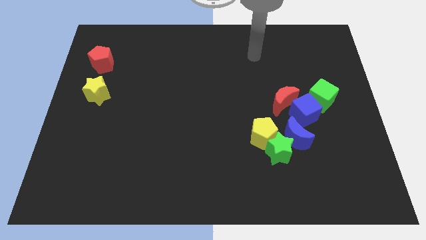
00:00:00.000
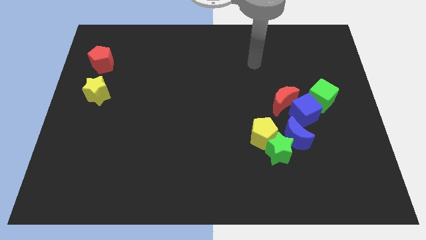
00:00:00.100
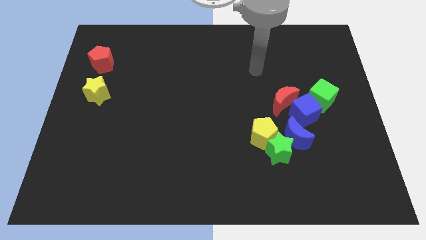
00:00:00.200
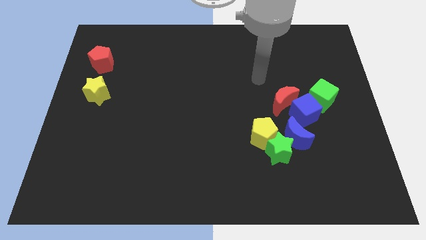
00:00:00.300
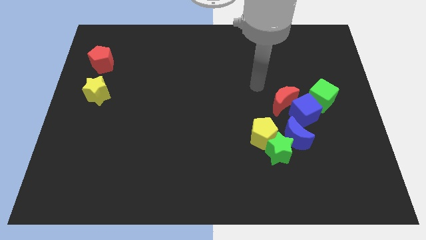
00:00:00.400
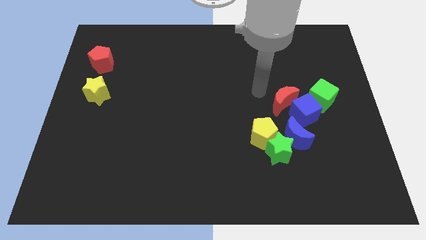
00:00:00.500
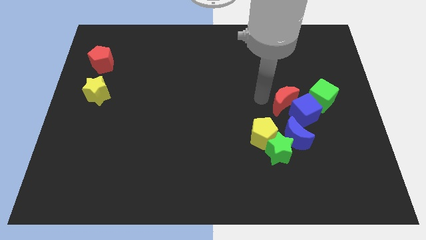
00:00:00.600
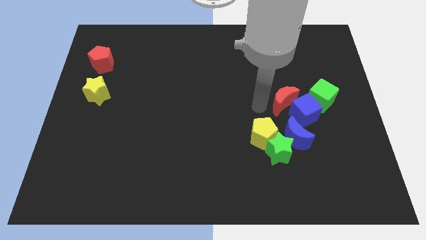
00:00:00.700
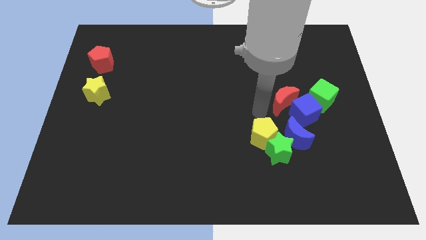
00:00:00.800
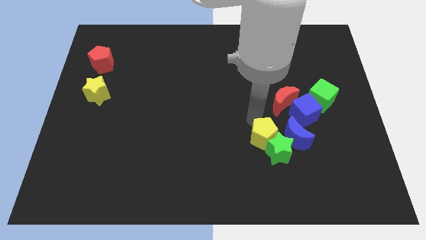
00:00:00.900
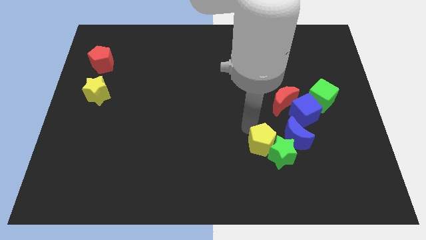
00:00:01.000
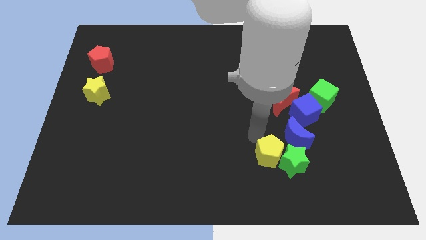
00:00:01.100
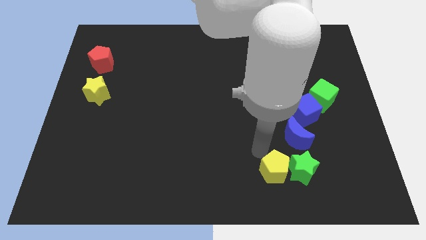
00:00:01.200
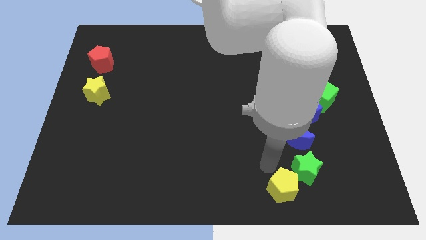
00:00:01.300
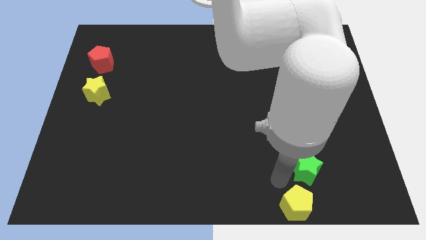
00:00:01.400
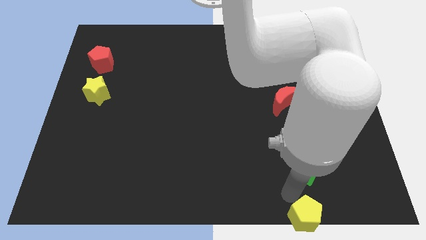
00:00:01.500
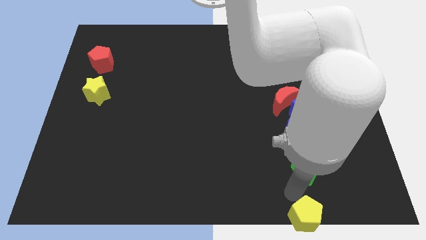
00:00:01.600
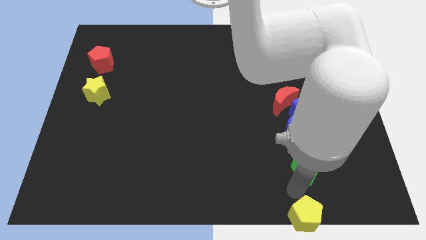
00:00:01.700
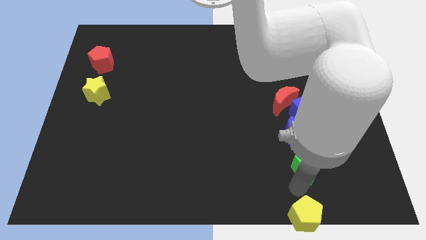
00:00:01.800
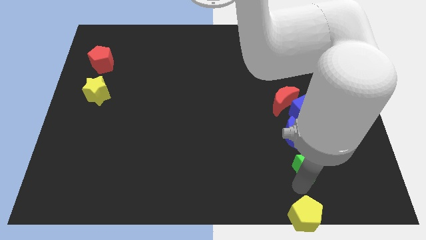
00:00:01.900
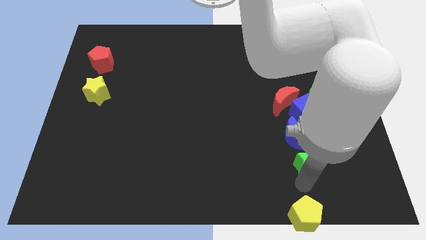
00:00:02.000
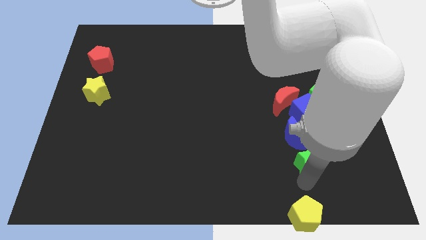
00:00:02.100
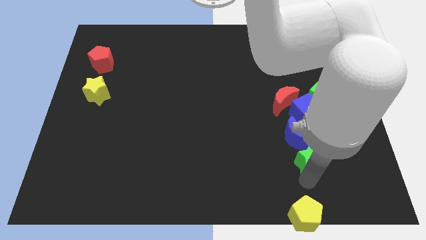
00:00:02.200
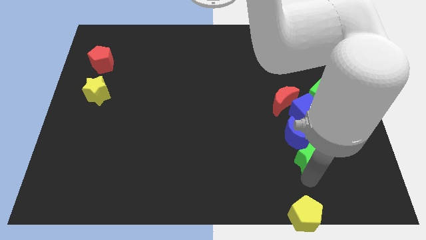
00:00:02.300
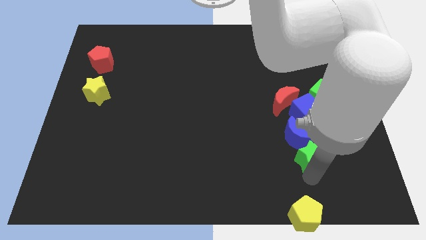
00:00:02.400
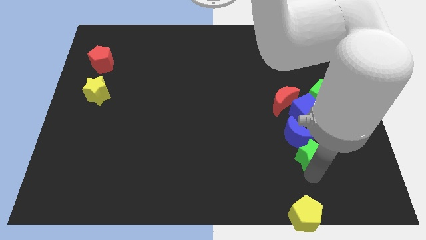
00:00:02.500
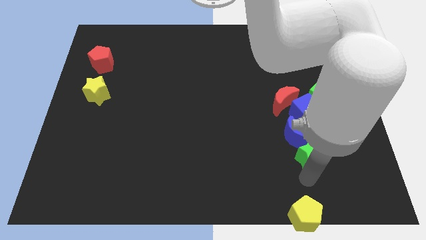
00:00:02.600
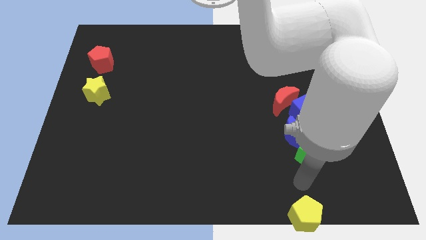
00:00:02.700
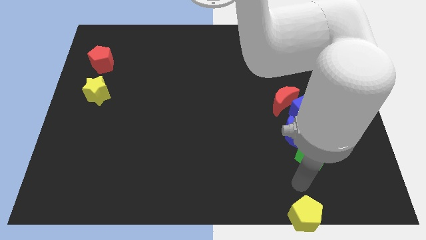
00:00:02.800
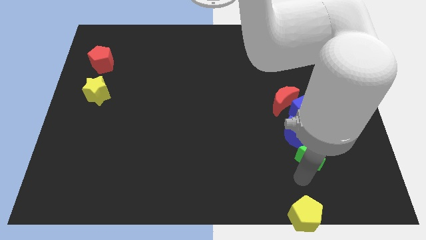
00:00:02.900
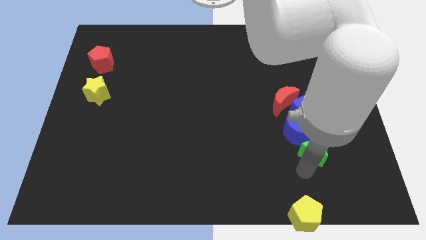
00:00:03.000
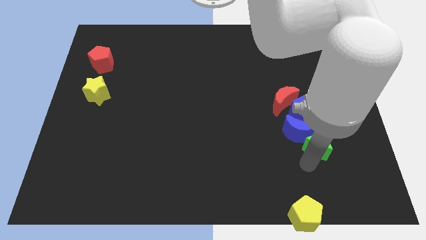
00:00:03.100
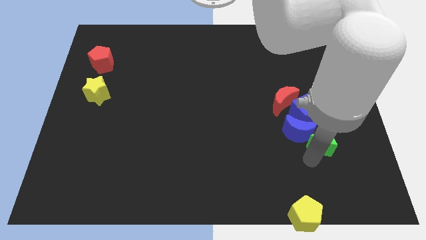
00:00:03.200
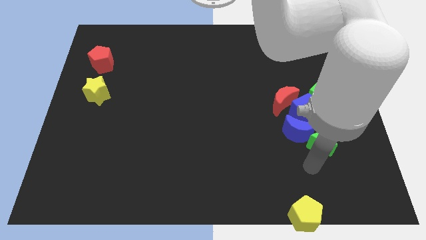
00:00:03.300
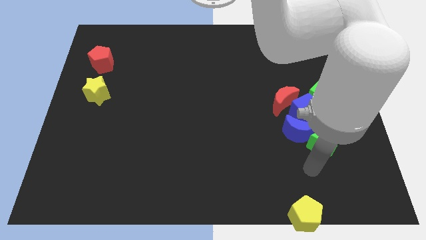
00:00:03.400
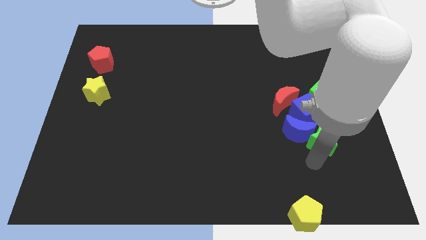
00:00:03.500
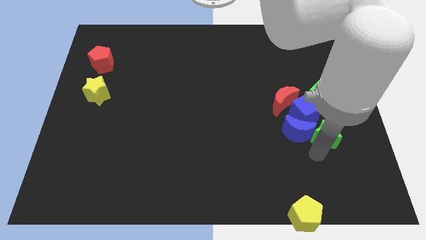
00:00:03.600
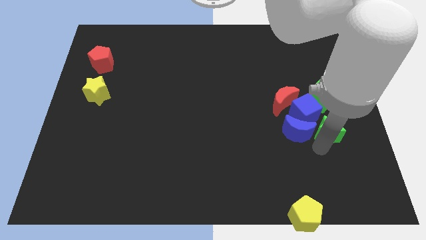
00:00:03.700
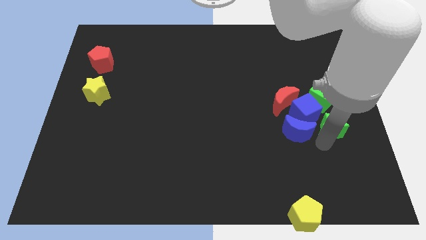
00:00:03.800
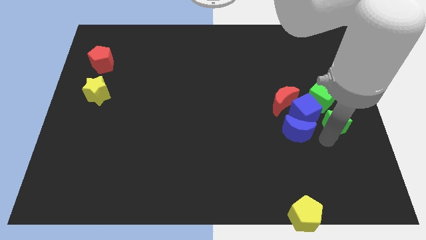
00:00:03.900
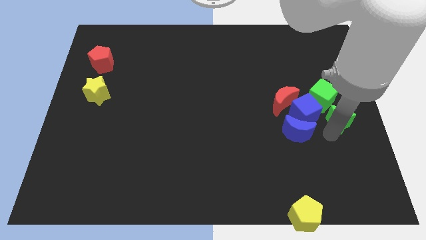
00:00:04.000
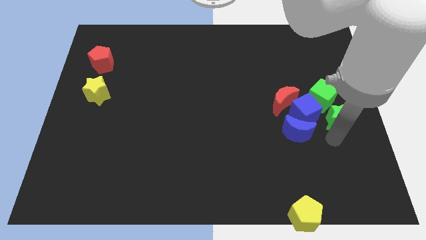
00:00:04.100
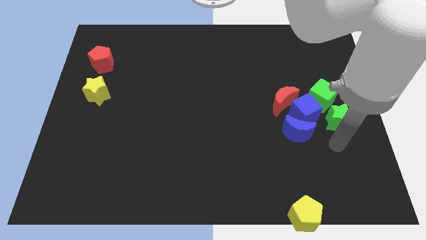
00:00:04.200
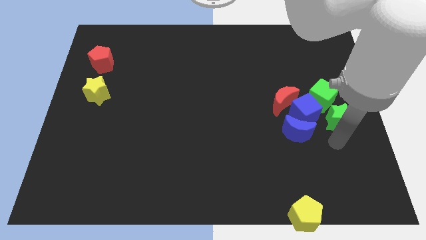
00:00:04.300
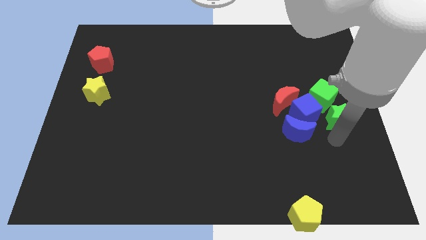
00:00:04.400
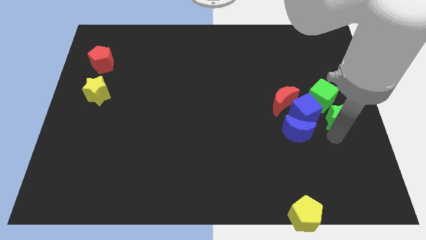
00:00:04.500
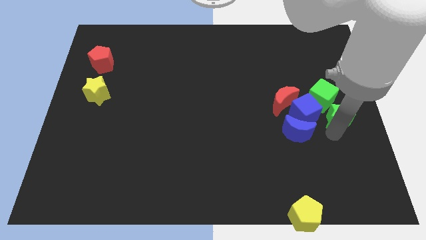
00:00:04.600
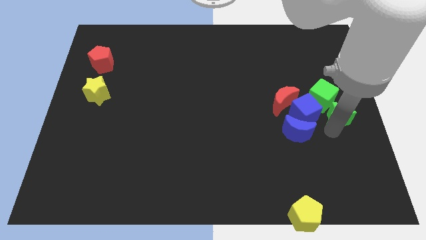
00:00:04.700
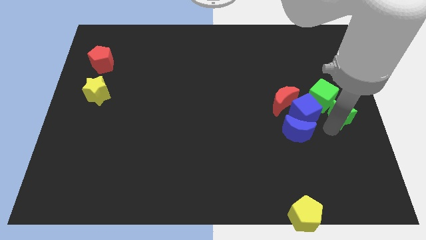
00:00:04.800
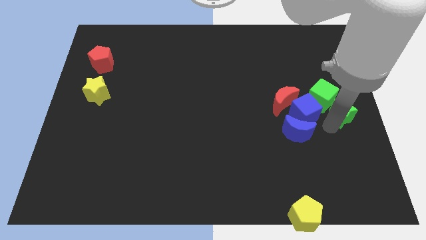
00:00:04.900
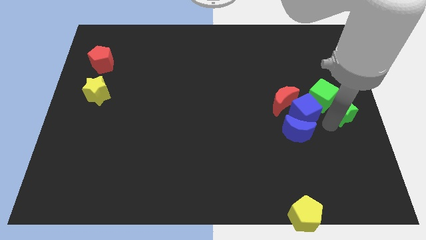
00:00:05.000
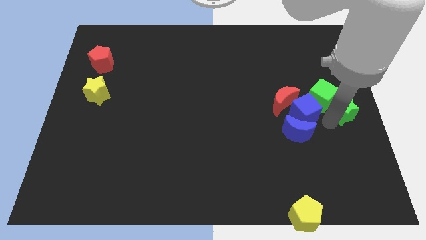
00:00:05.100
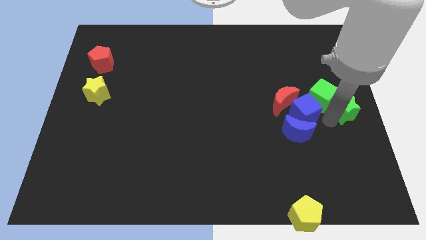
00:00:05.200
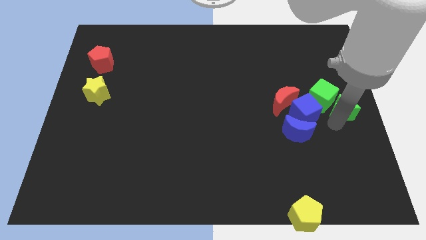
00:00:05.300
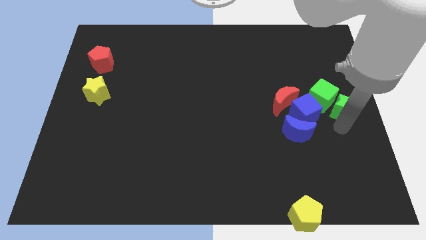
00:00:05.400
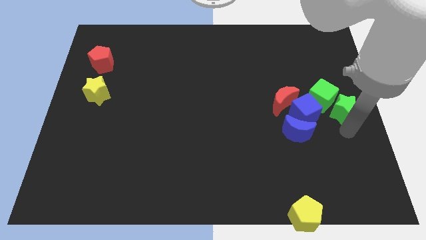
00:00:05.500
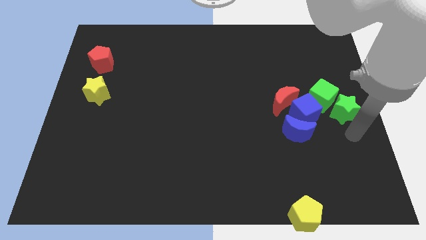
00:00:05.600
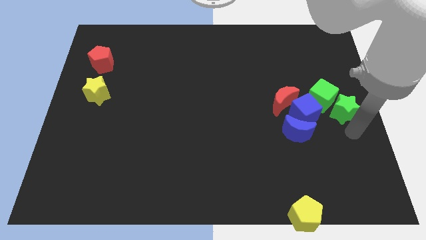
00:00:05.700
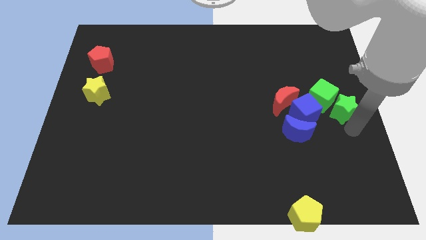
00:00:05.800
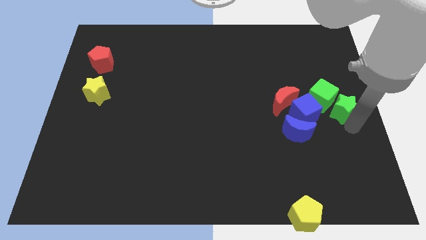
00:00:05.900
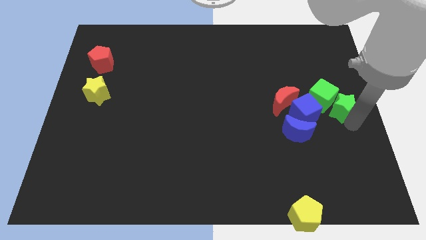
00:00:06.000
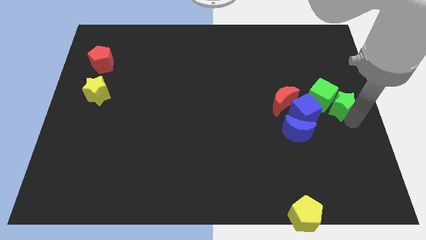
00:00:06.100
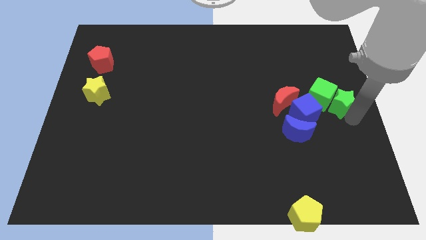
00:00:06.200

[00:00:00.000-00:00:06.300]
move the green star to the top right side of the blue cube

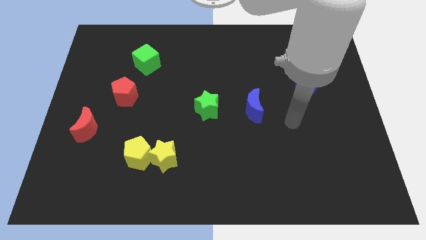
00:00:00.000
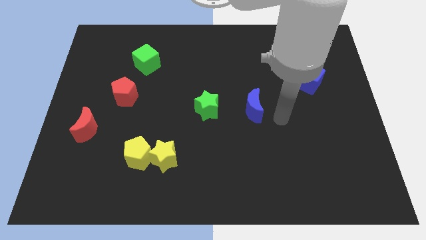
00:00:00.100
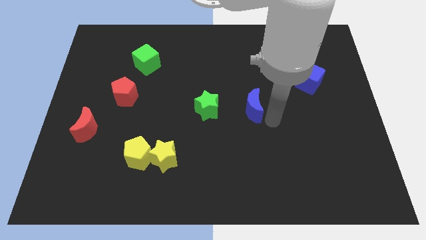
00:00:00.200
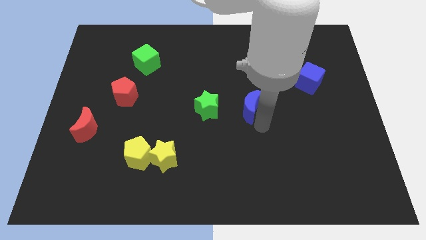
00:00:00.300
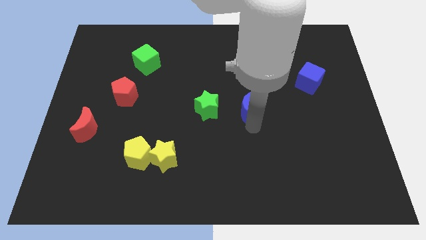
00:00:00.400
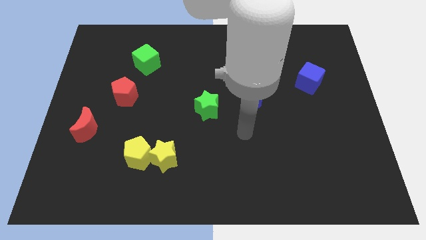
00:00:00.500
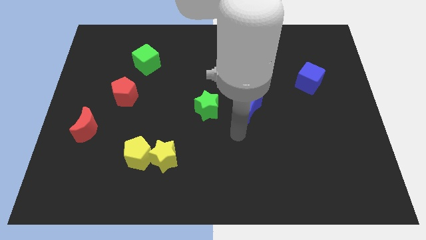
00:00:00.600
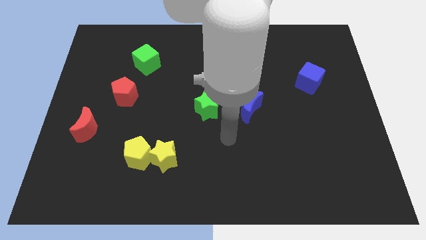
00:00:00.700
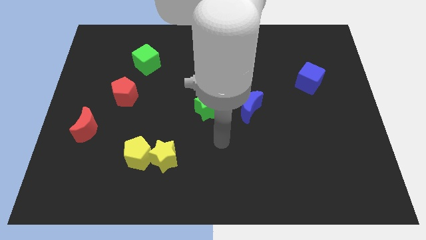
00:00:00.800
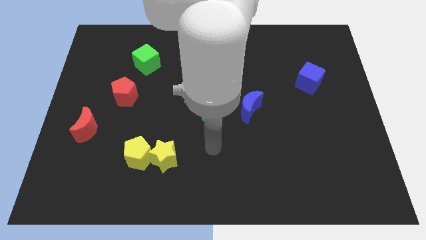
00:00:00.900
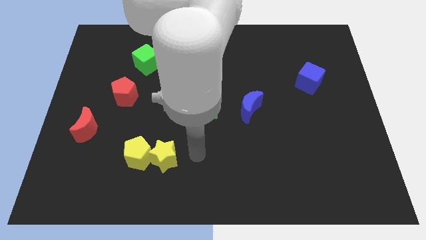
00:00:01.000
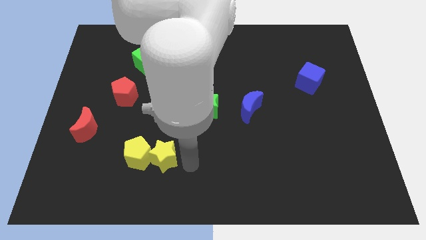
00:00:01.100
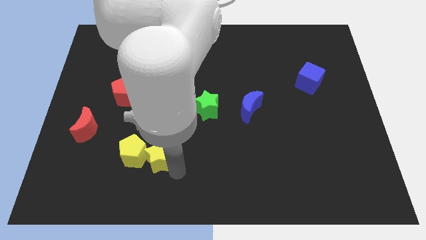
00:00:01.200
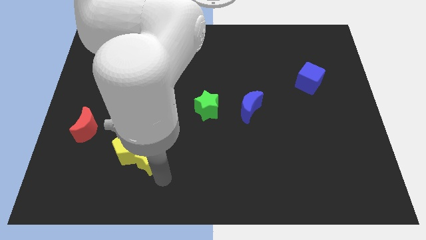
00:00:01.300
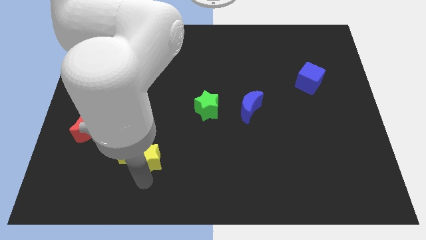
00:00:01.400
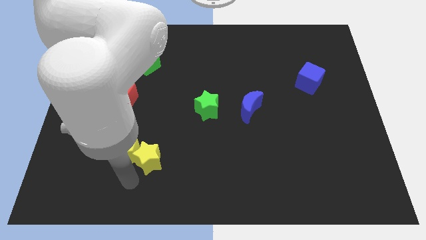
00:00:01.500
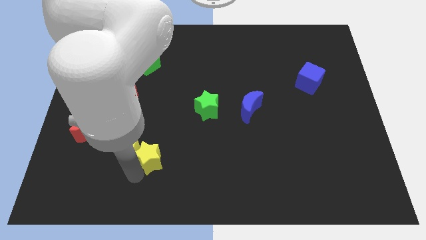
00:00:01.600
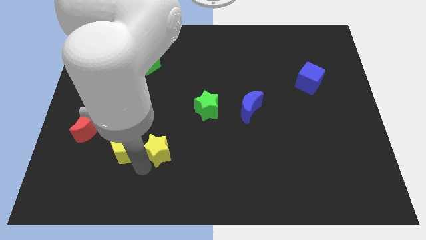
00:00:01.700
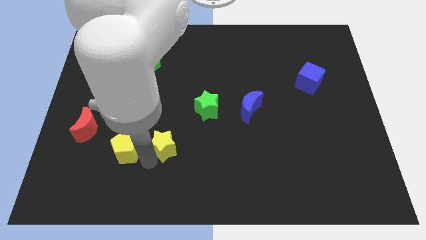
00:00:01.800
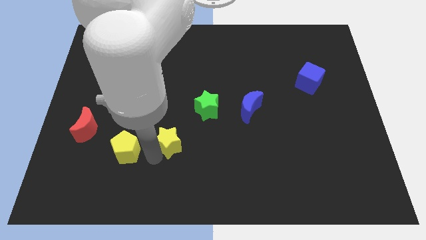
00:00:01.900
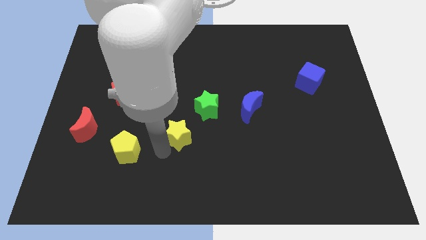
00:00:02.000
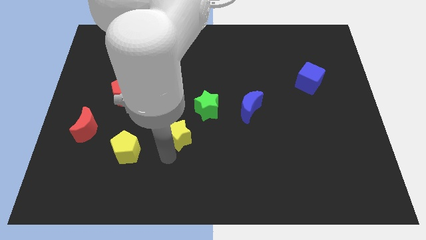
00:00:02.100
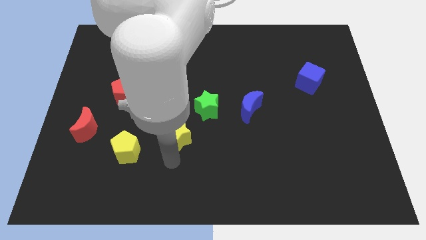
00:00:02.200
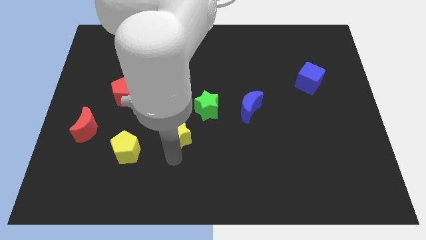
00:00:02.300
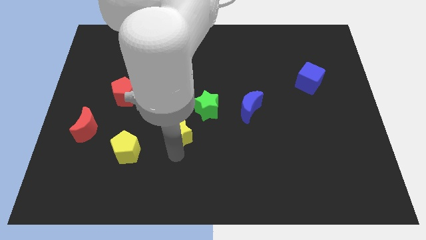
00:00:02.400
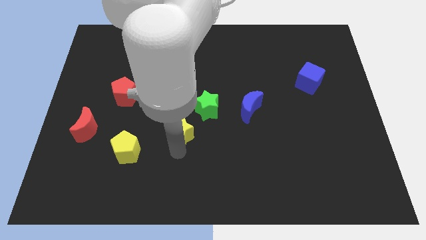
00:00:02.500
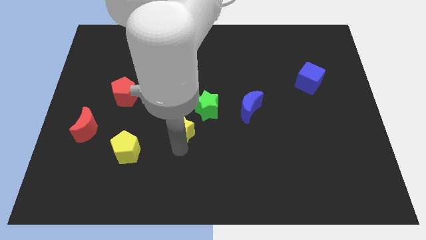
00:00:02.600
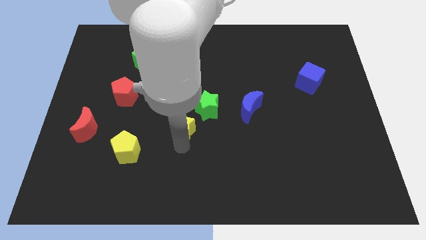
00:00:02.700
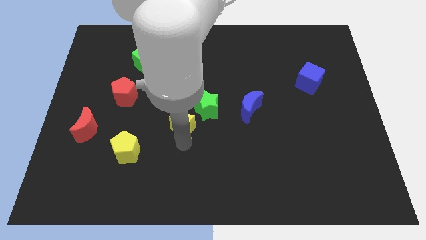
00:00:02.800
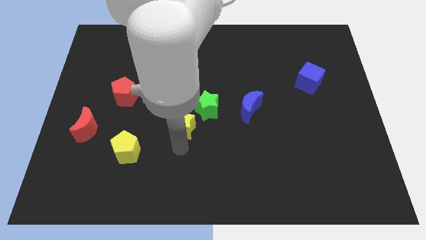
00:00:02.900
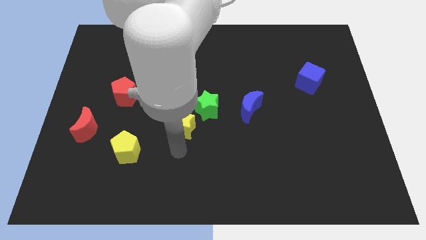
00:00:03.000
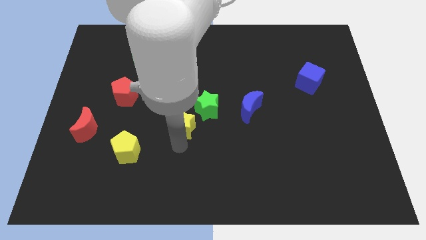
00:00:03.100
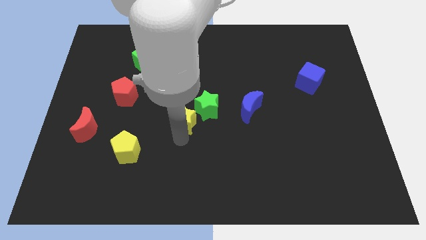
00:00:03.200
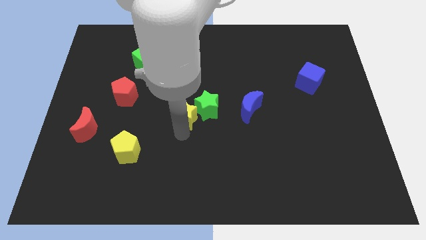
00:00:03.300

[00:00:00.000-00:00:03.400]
slide the yellow star to the left of the blue moon
